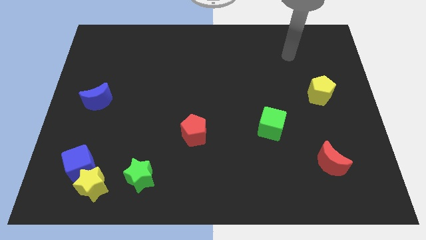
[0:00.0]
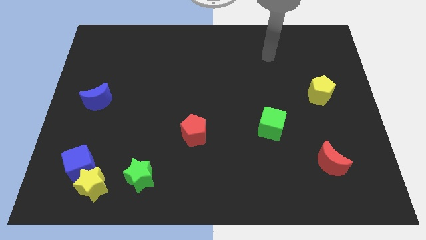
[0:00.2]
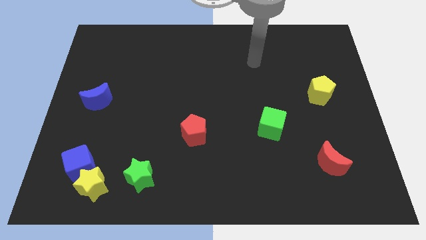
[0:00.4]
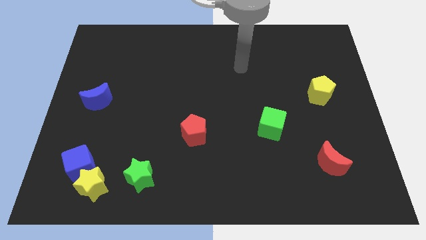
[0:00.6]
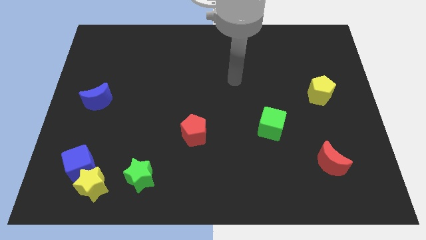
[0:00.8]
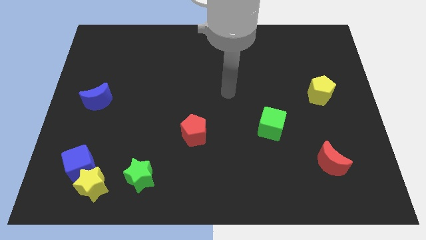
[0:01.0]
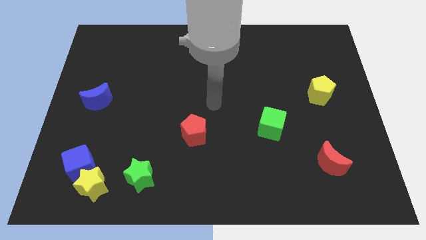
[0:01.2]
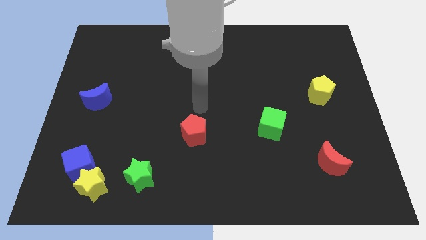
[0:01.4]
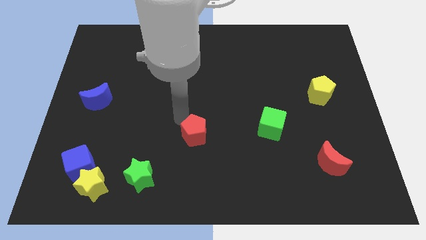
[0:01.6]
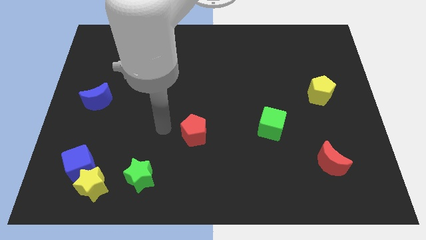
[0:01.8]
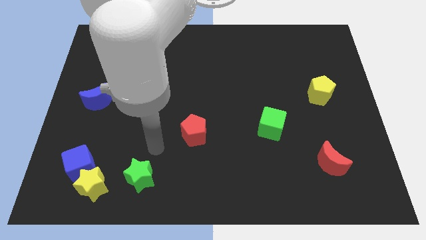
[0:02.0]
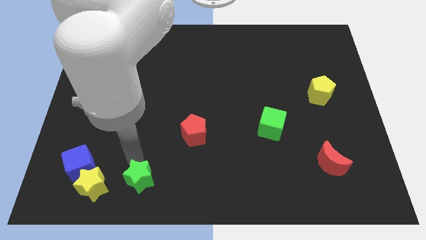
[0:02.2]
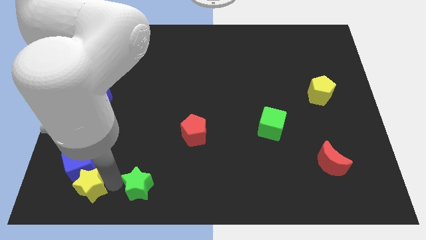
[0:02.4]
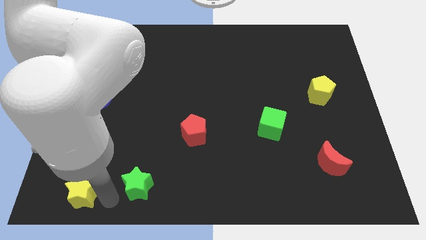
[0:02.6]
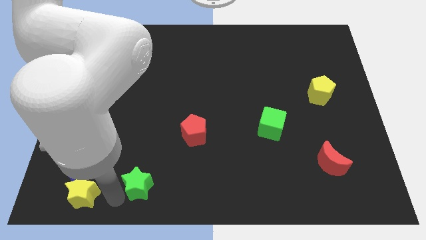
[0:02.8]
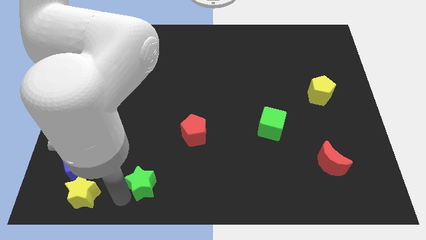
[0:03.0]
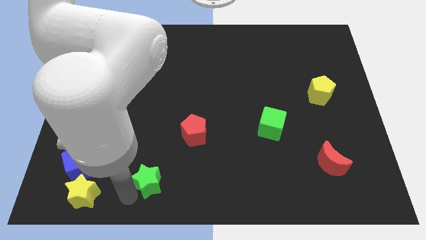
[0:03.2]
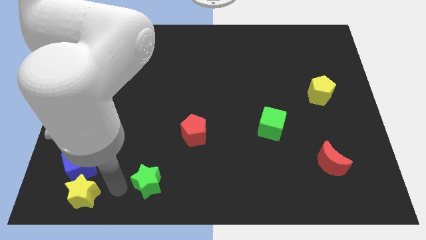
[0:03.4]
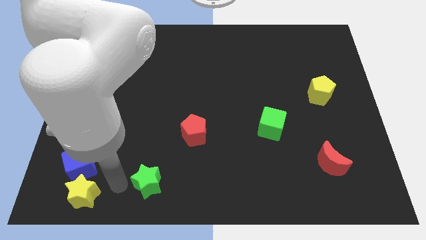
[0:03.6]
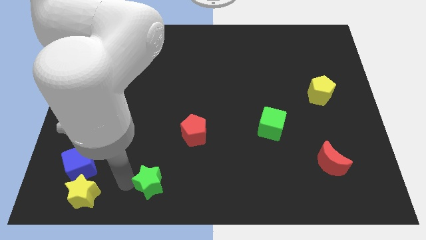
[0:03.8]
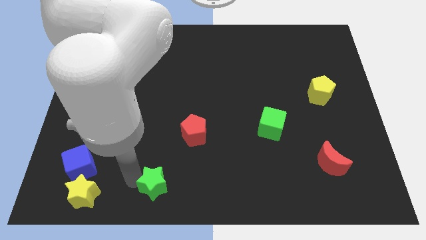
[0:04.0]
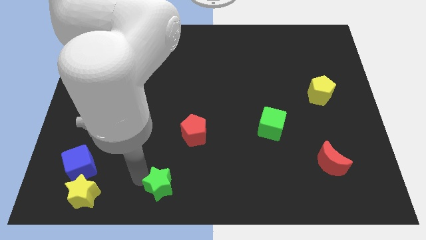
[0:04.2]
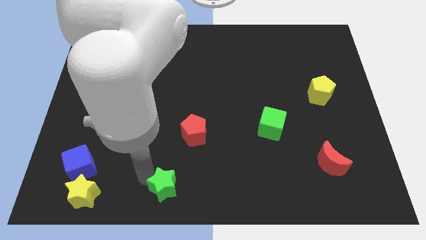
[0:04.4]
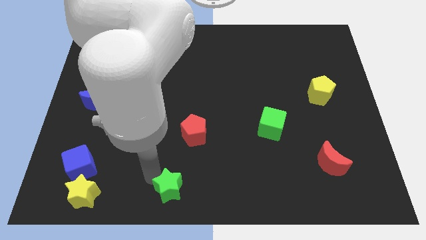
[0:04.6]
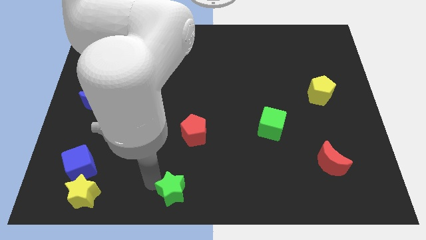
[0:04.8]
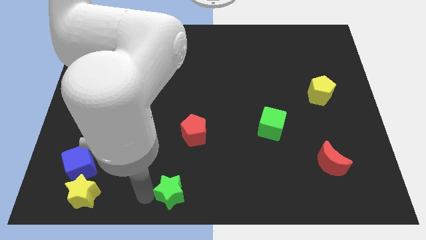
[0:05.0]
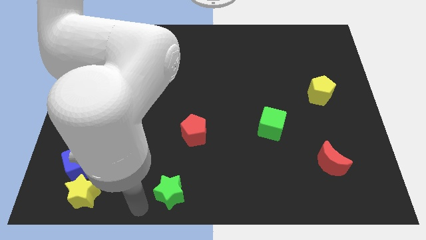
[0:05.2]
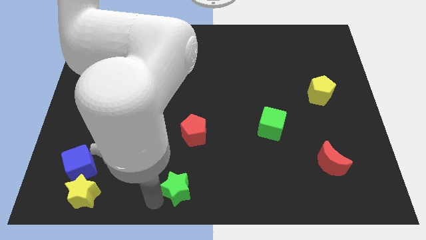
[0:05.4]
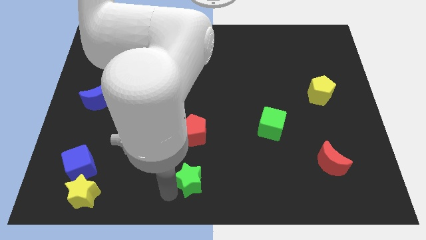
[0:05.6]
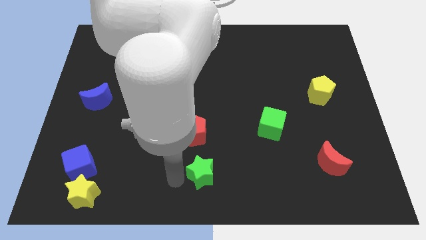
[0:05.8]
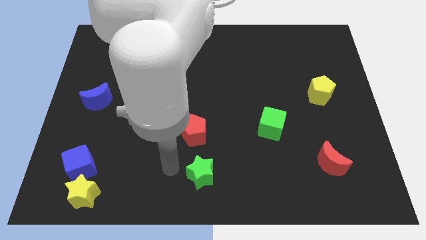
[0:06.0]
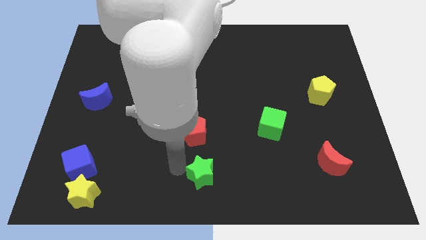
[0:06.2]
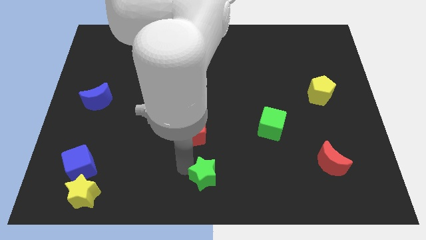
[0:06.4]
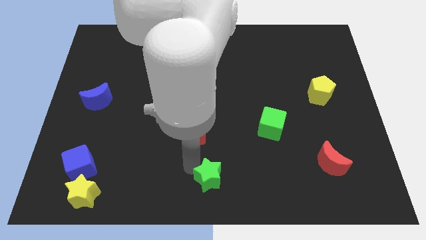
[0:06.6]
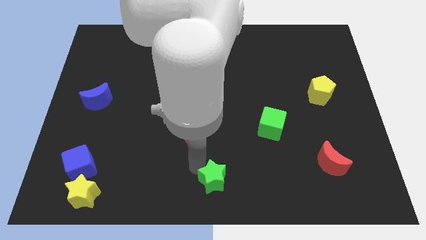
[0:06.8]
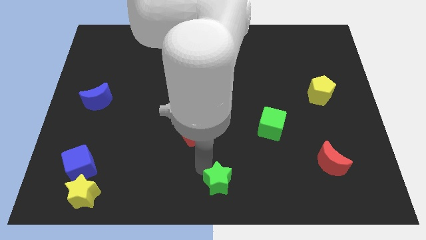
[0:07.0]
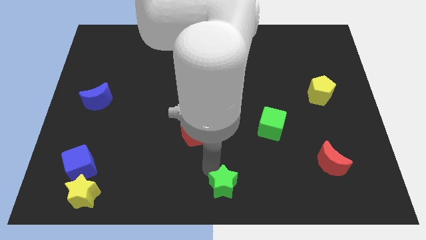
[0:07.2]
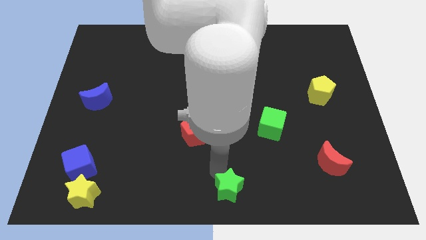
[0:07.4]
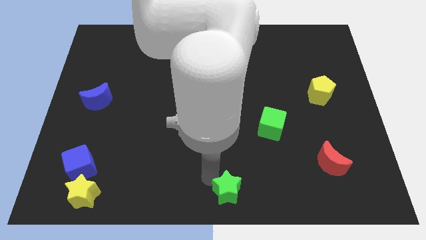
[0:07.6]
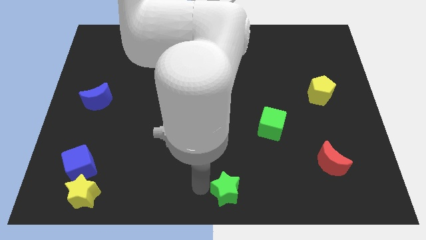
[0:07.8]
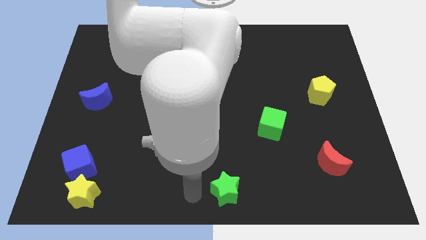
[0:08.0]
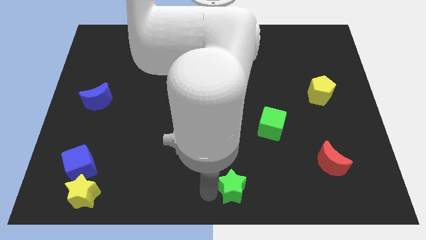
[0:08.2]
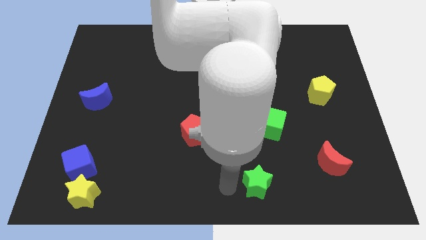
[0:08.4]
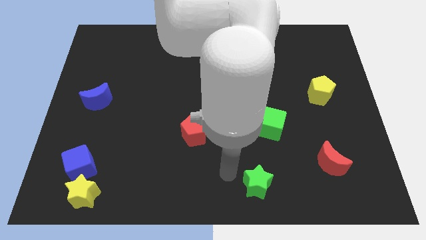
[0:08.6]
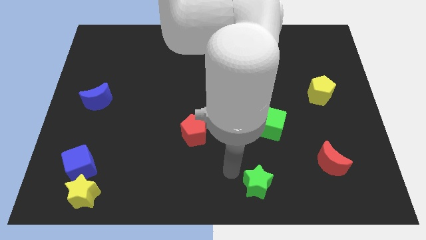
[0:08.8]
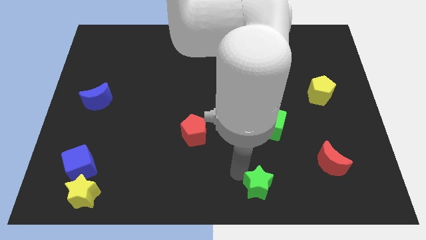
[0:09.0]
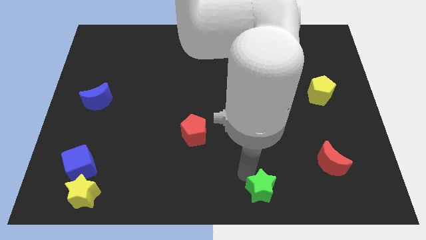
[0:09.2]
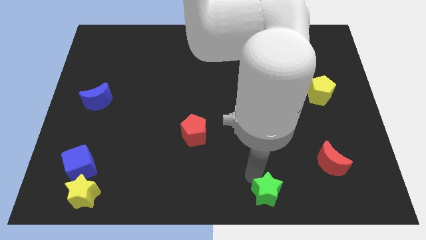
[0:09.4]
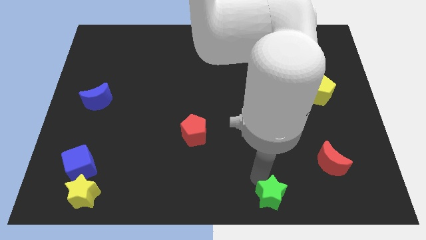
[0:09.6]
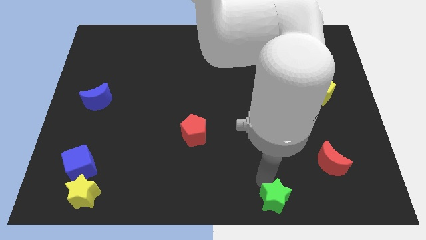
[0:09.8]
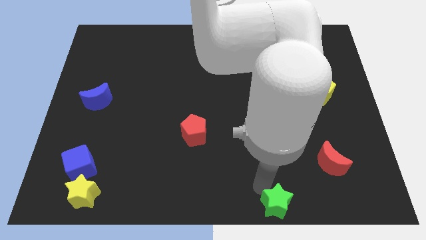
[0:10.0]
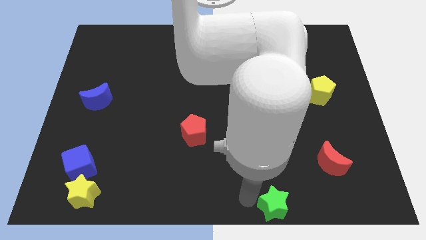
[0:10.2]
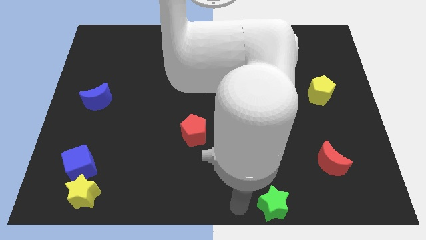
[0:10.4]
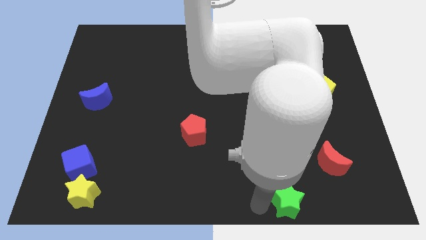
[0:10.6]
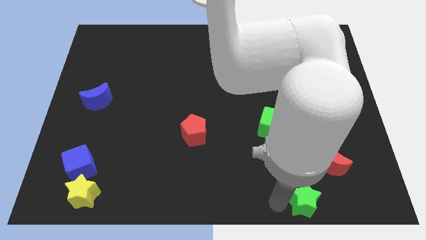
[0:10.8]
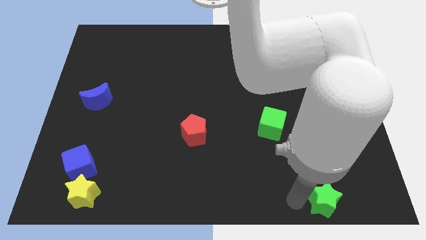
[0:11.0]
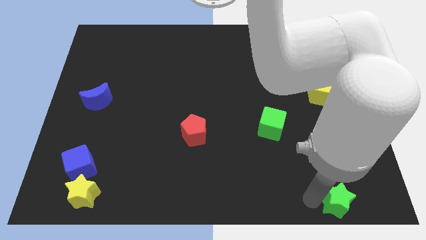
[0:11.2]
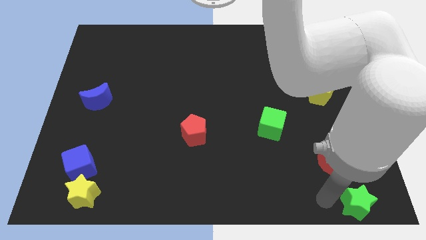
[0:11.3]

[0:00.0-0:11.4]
slide the green star to the lower right corner

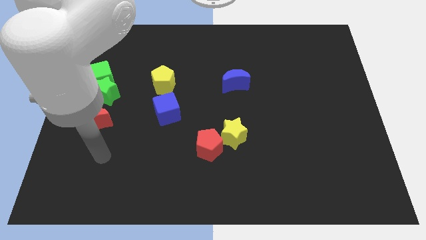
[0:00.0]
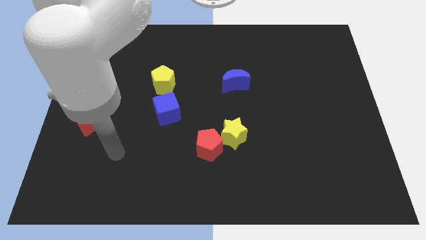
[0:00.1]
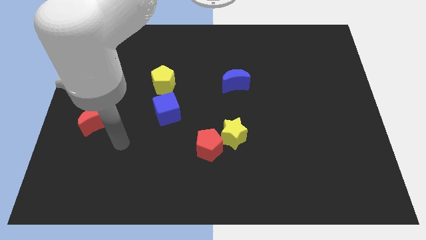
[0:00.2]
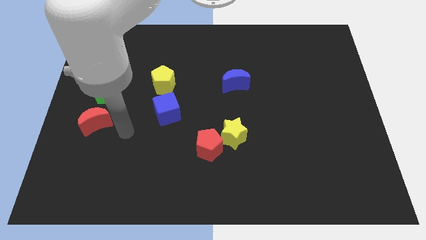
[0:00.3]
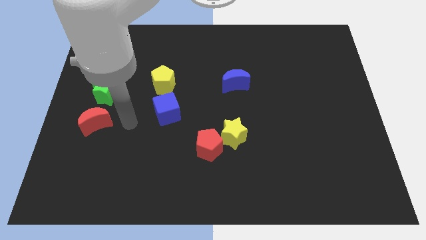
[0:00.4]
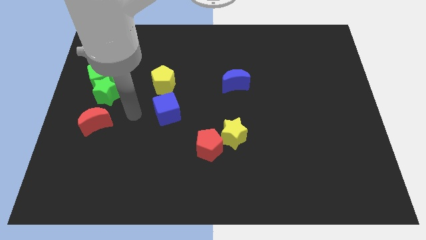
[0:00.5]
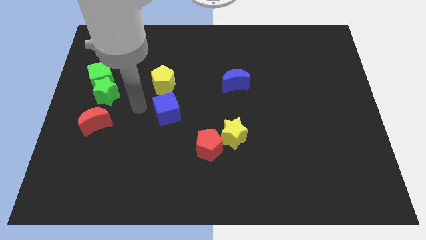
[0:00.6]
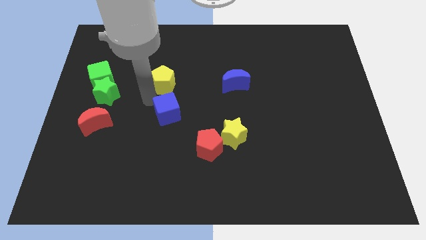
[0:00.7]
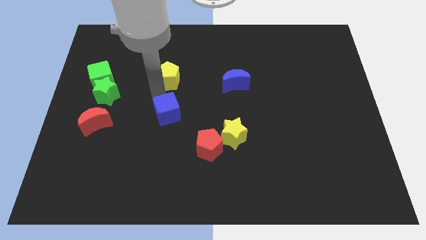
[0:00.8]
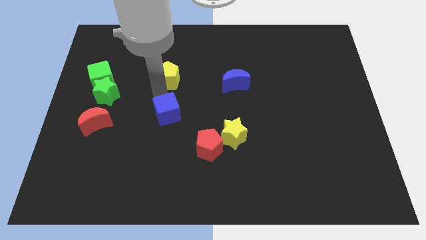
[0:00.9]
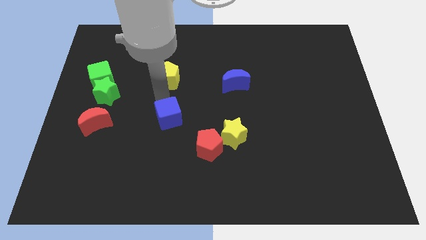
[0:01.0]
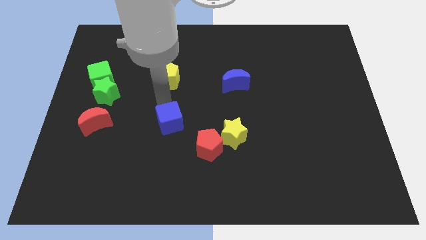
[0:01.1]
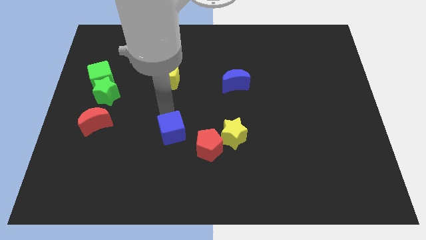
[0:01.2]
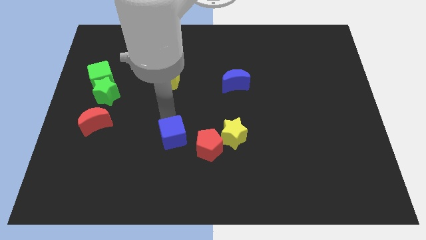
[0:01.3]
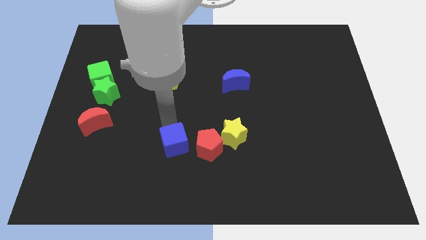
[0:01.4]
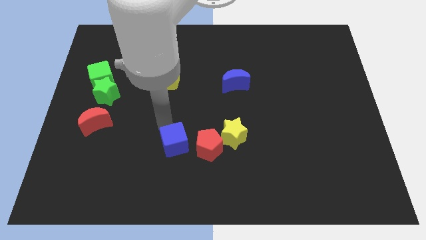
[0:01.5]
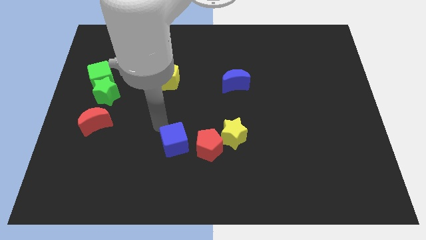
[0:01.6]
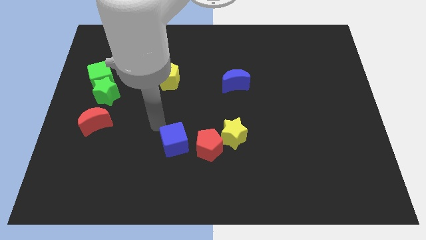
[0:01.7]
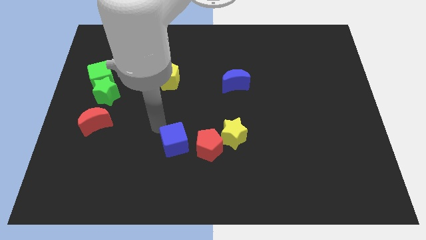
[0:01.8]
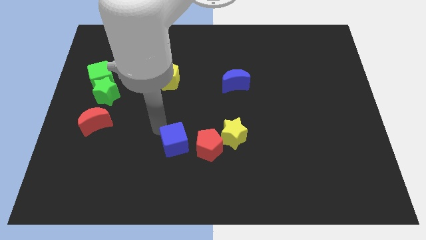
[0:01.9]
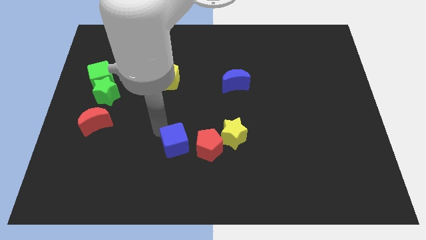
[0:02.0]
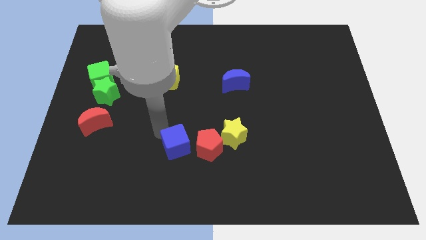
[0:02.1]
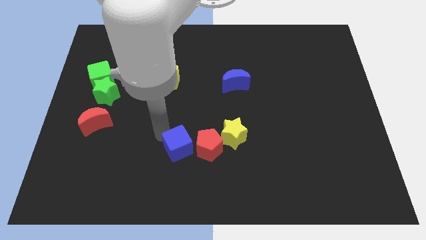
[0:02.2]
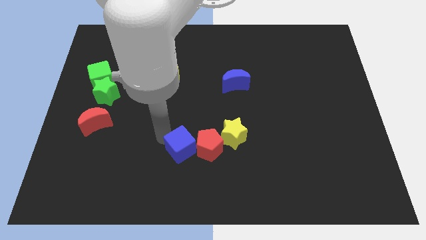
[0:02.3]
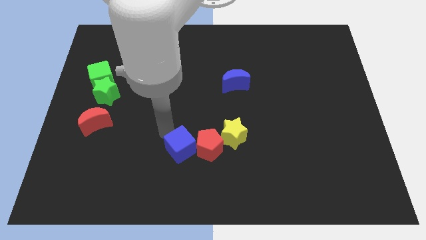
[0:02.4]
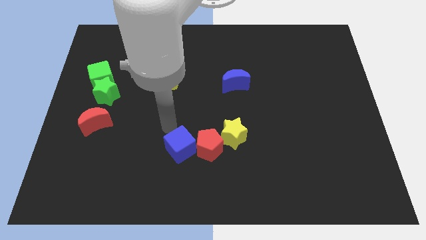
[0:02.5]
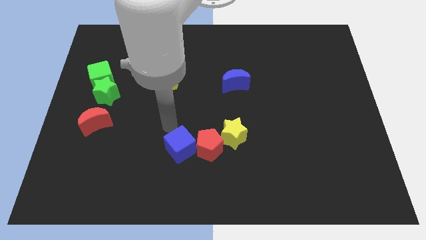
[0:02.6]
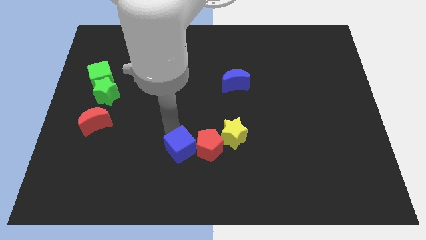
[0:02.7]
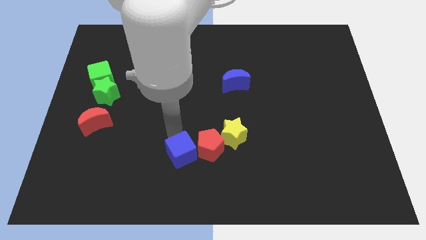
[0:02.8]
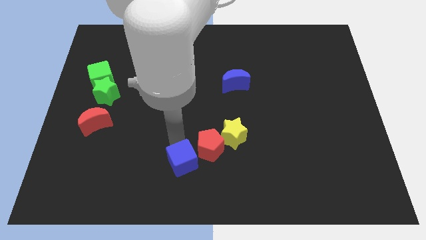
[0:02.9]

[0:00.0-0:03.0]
put the blue cube to the bottom side
